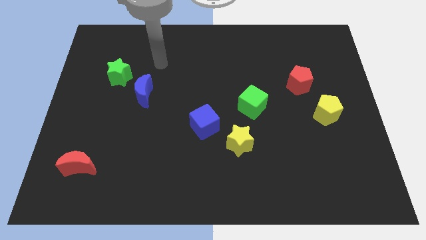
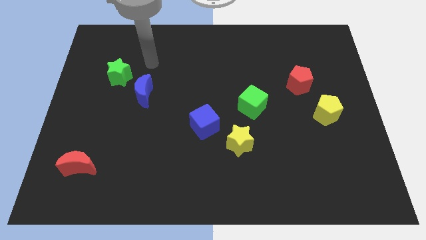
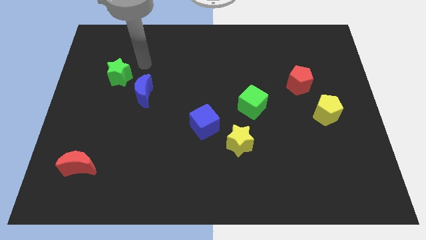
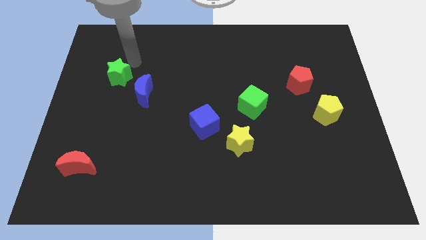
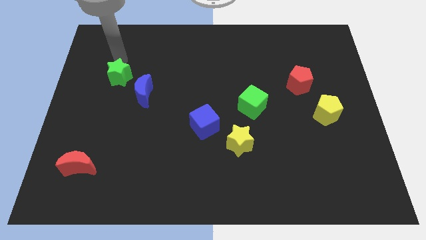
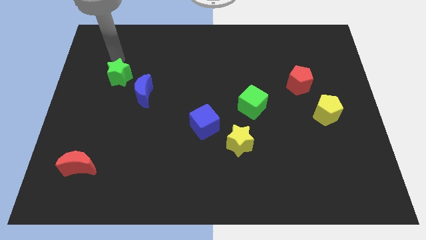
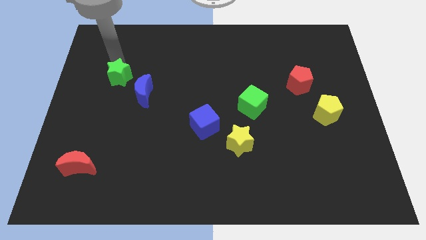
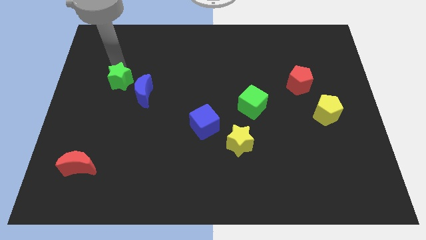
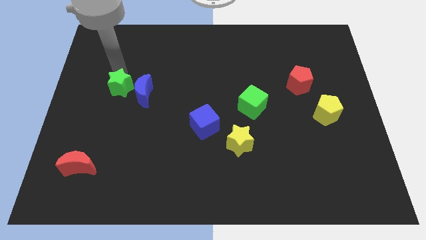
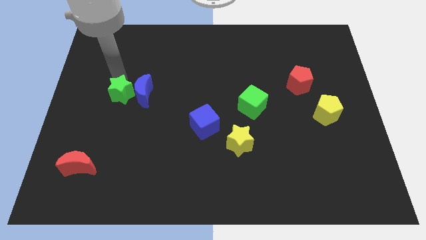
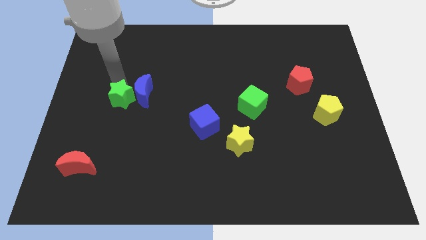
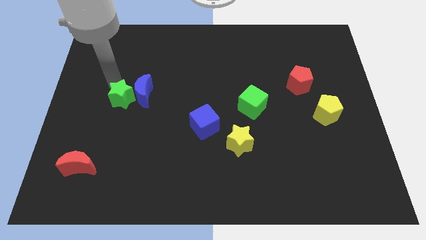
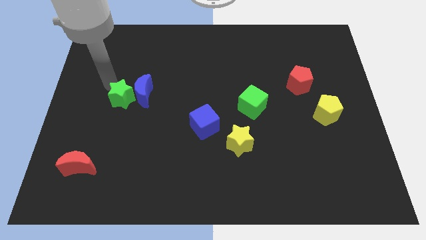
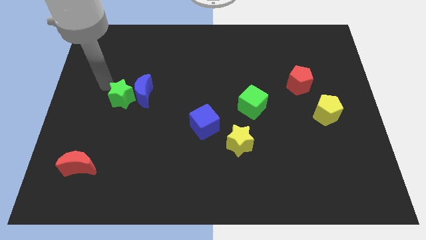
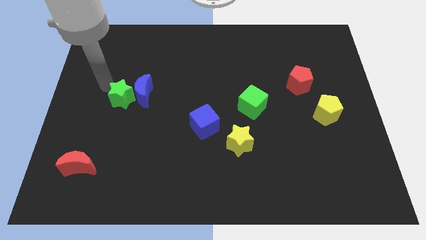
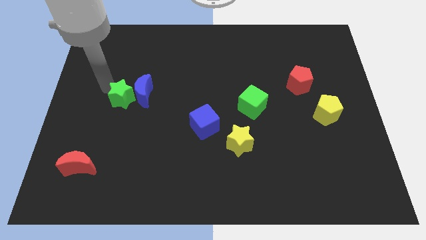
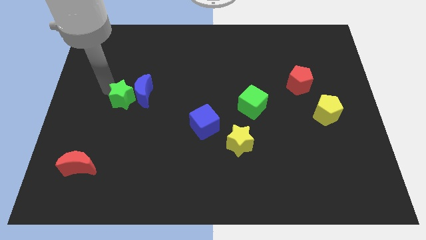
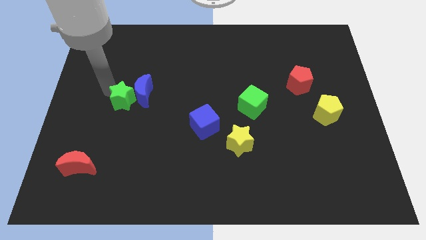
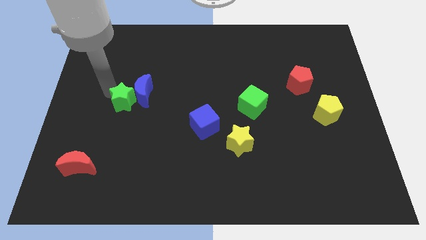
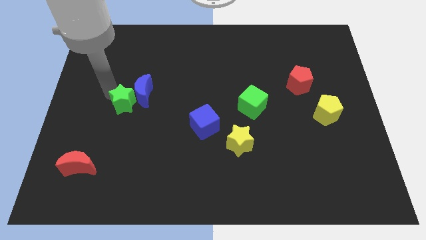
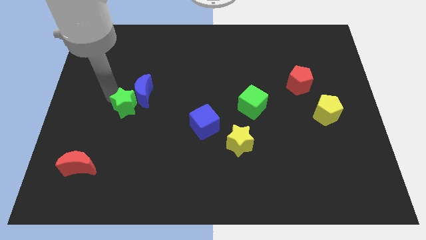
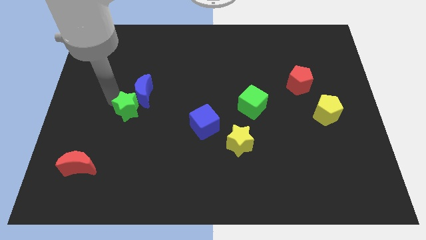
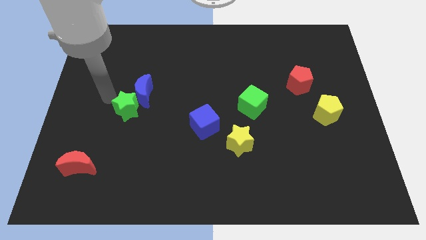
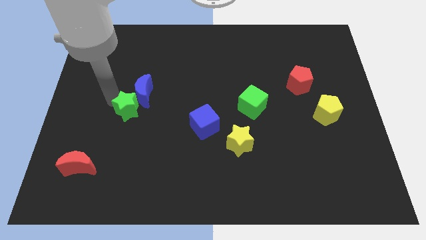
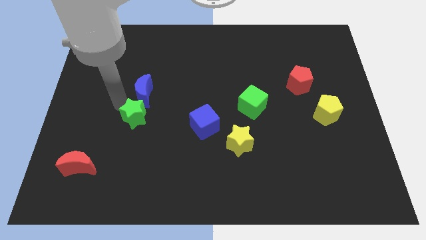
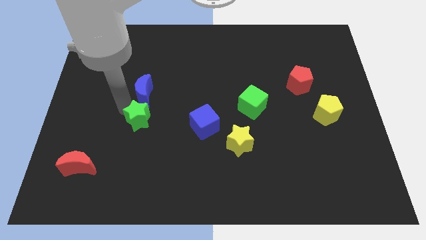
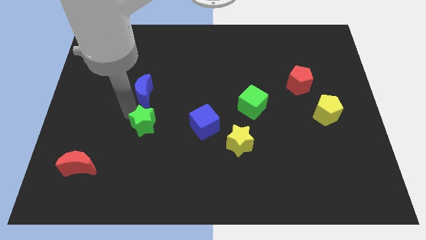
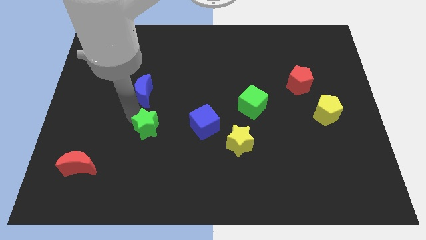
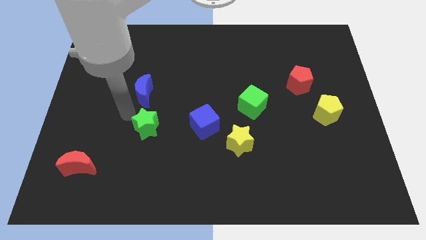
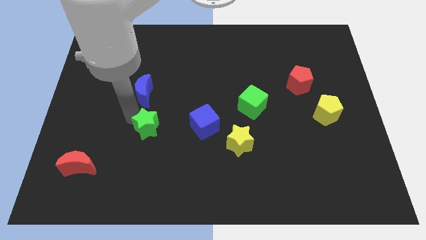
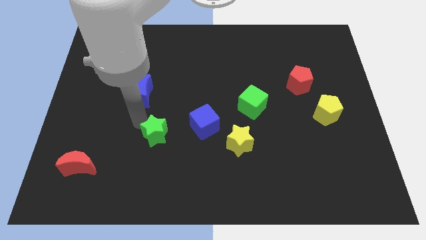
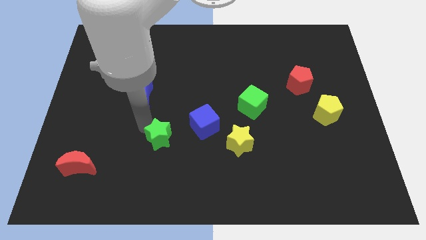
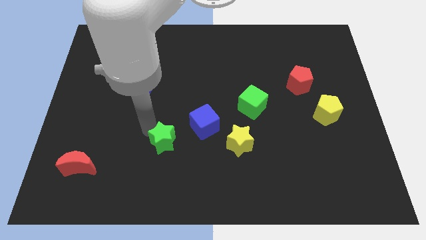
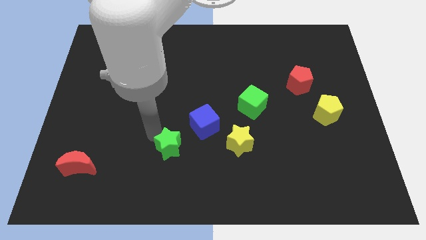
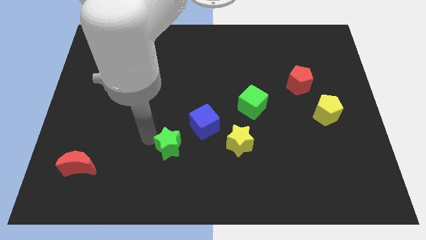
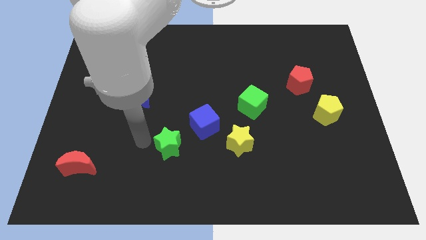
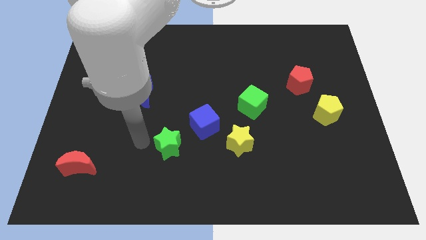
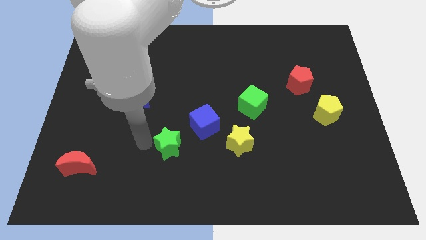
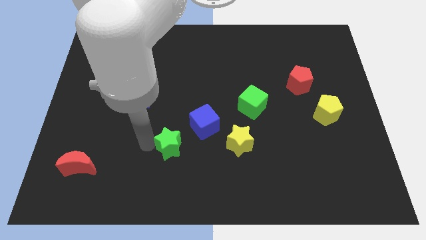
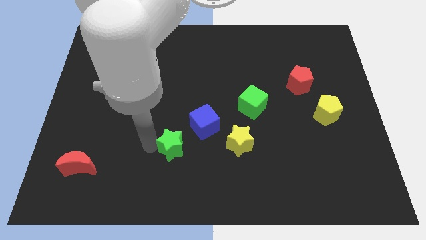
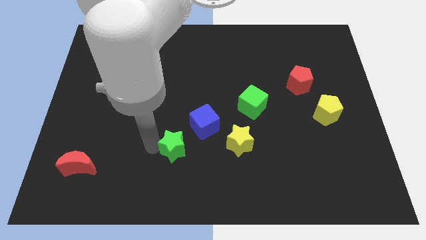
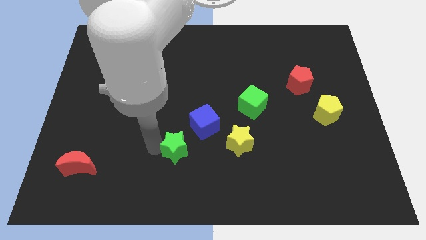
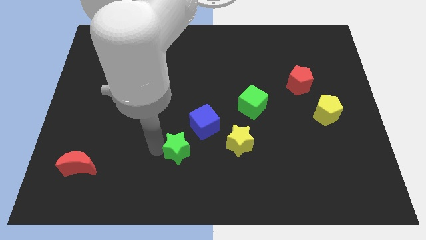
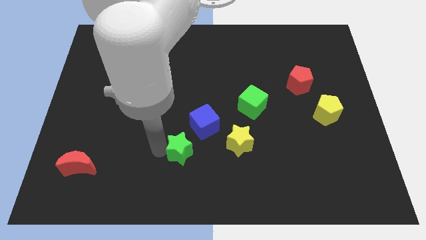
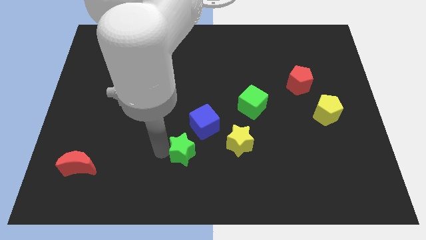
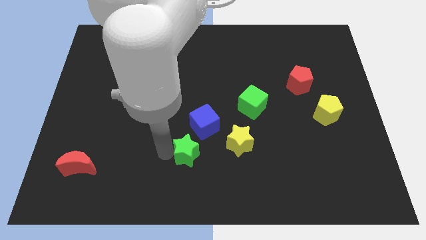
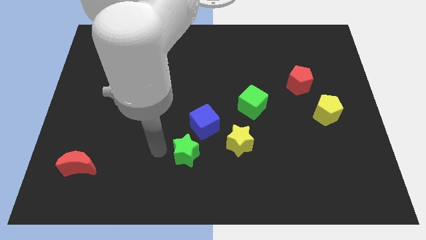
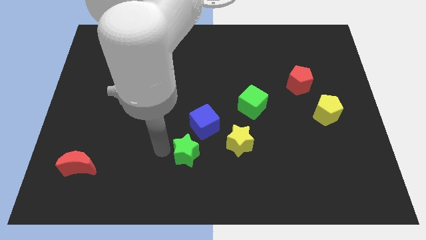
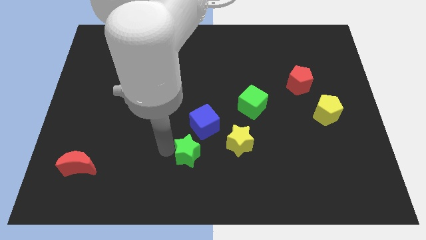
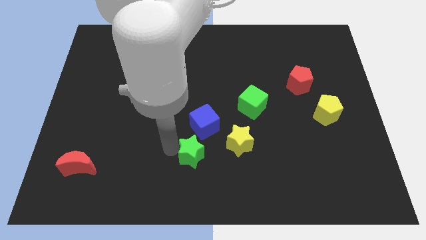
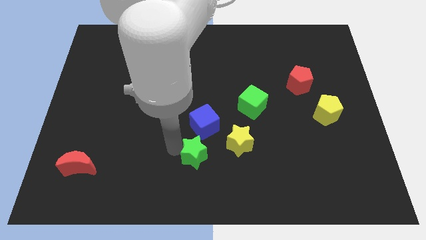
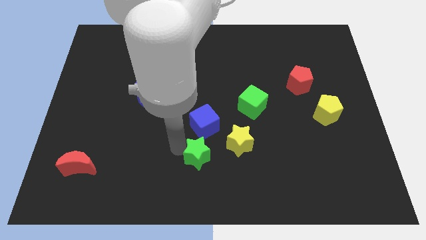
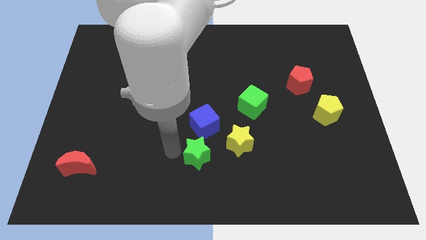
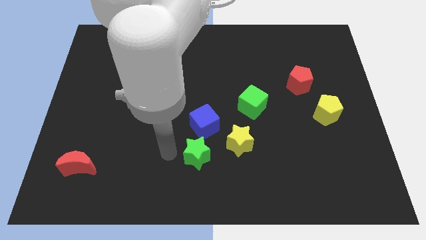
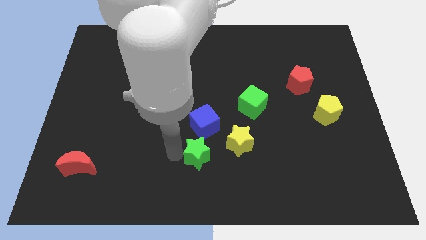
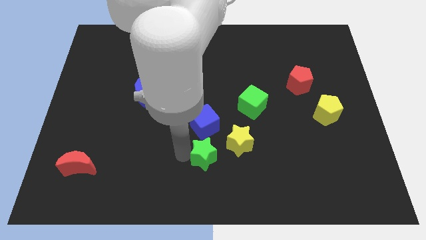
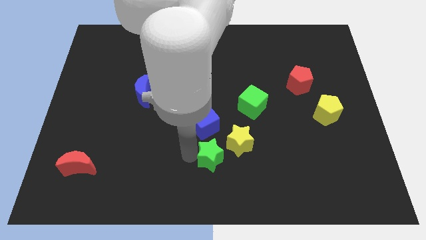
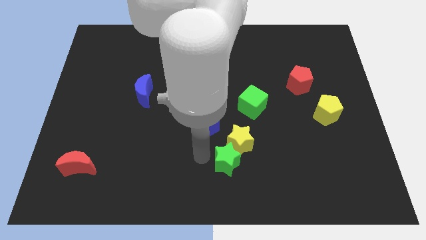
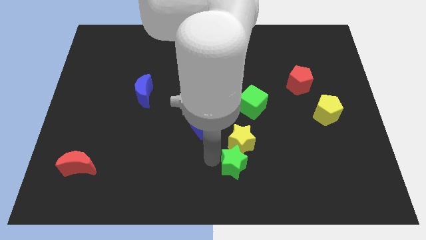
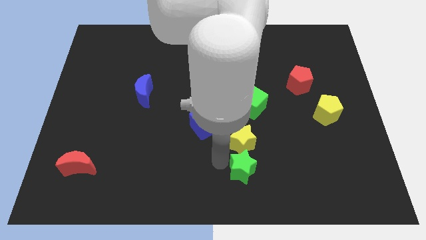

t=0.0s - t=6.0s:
put the green star to the bottom right of the yellow star
